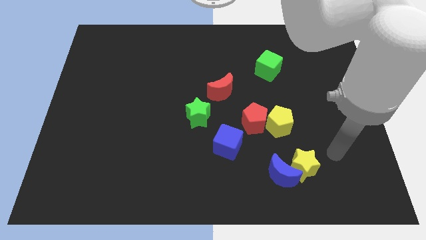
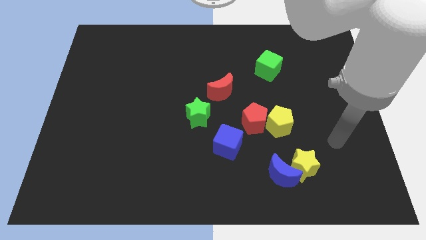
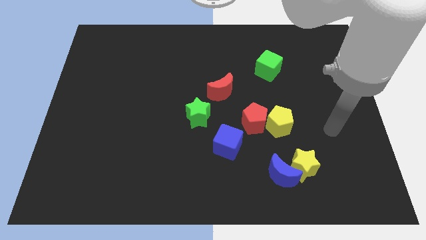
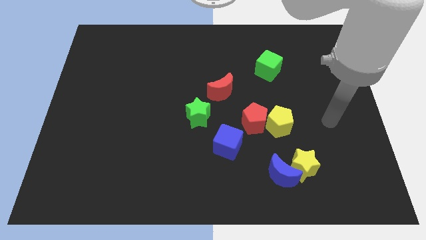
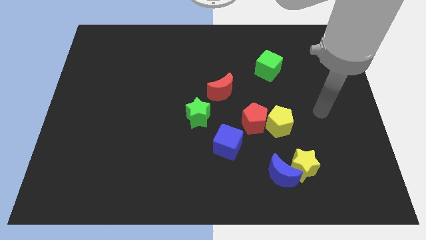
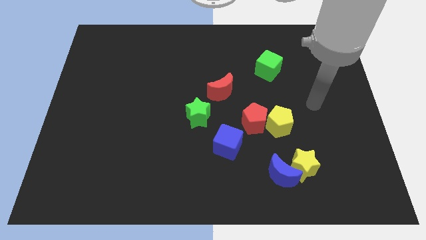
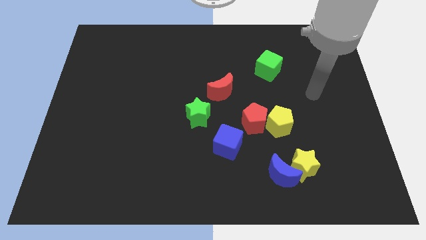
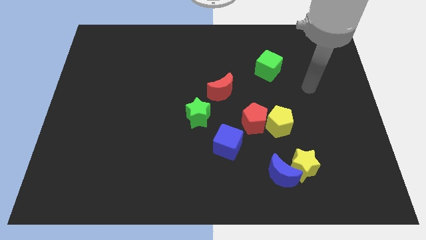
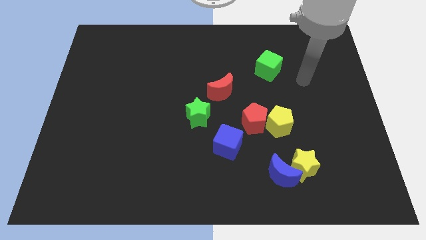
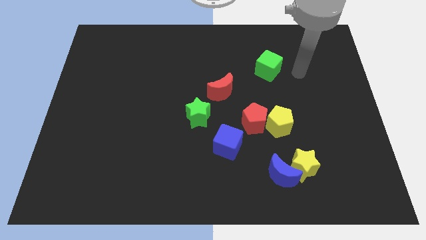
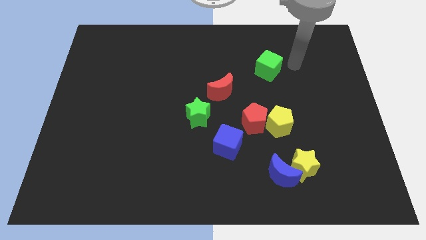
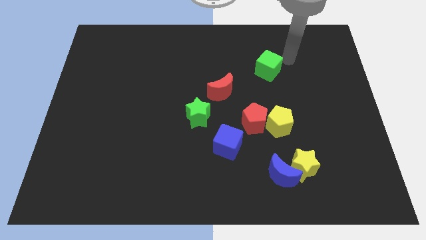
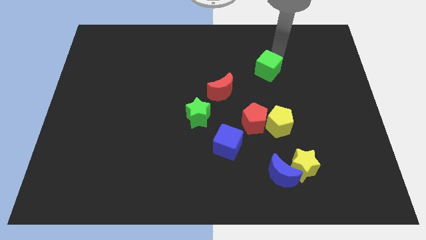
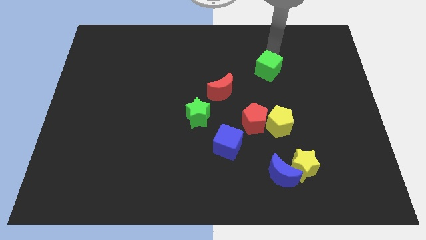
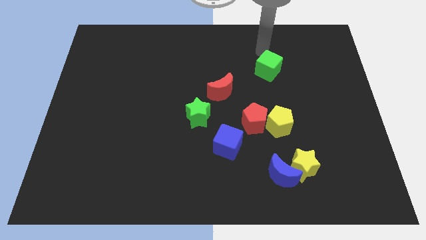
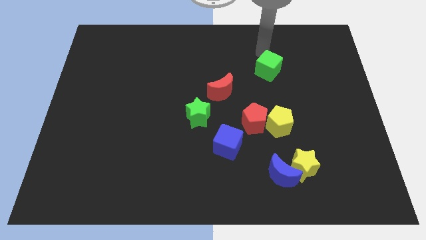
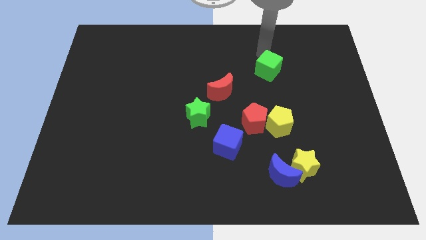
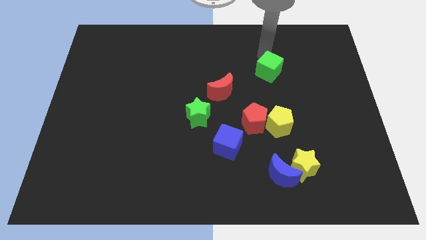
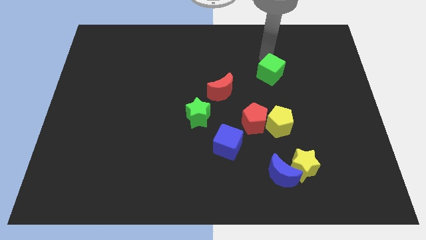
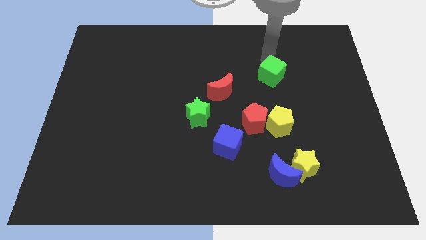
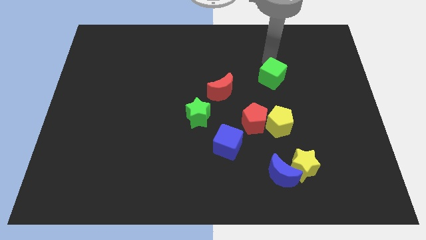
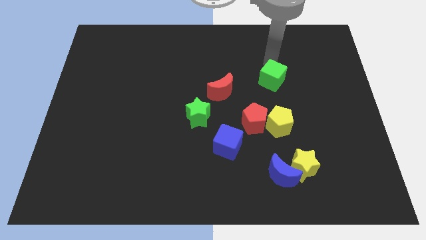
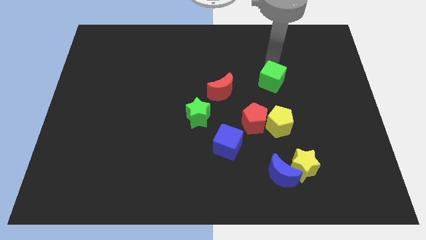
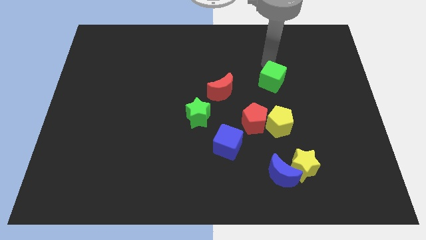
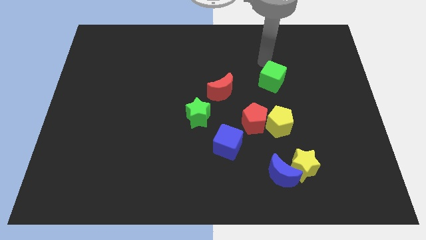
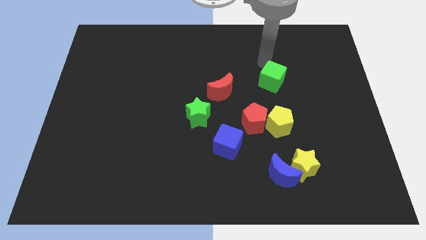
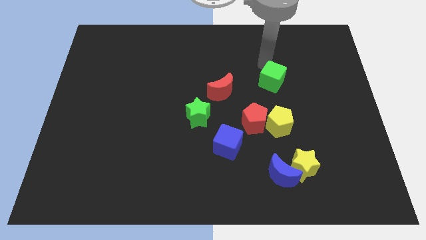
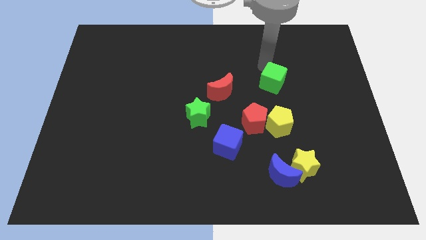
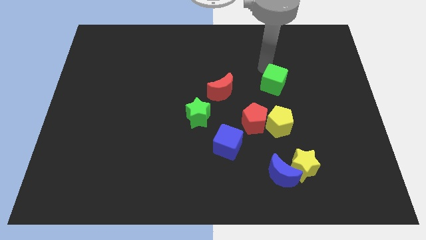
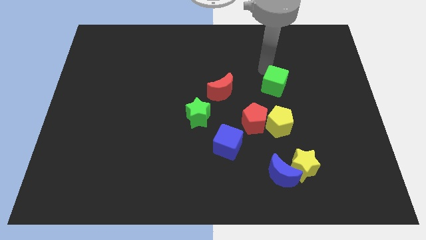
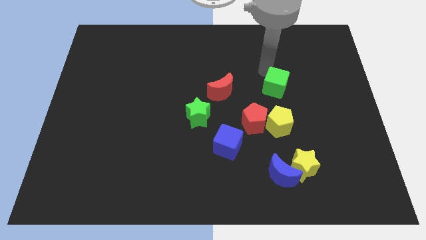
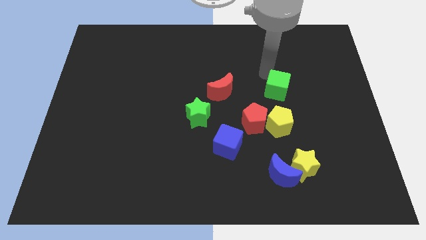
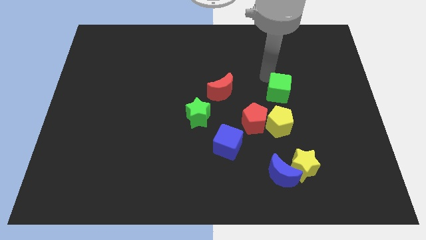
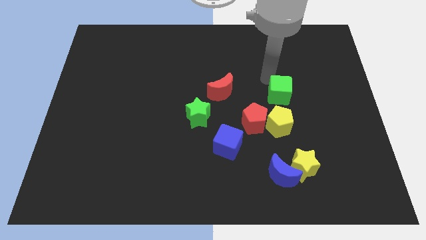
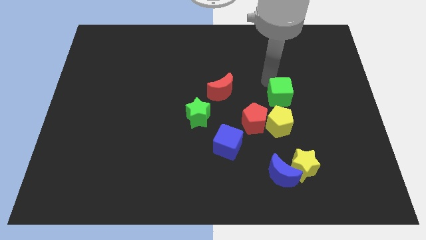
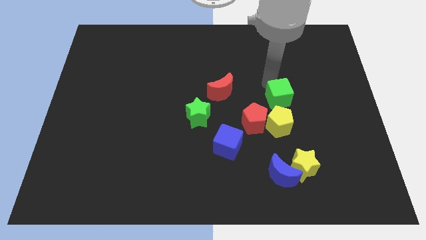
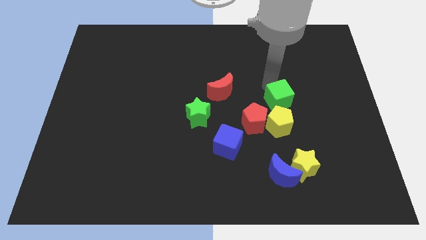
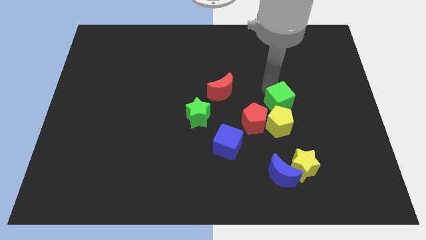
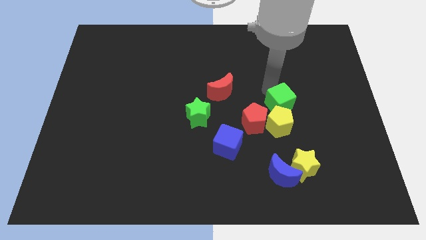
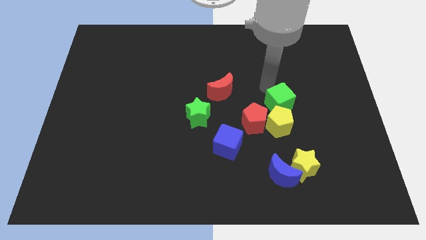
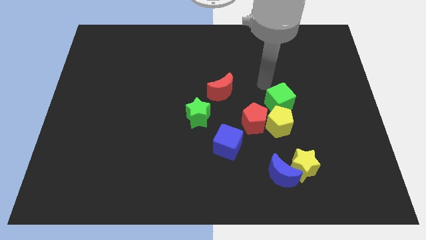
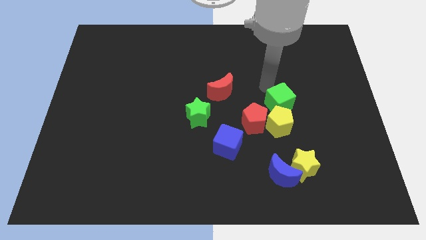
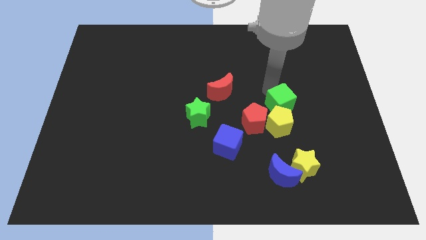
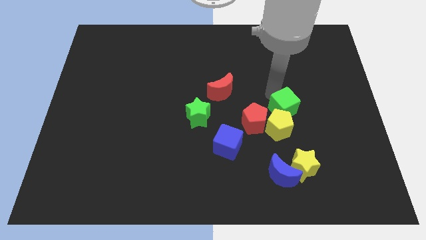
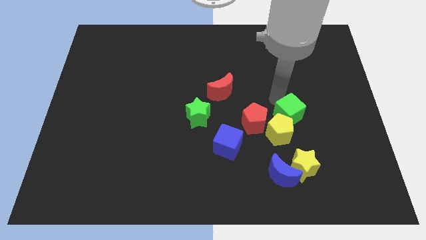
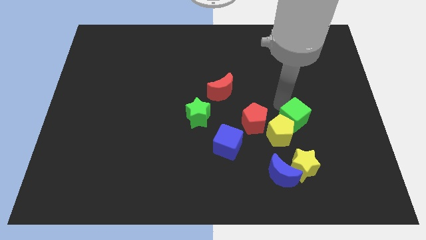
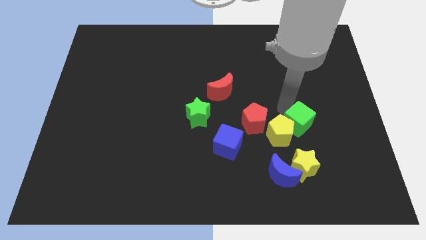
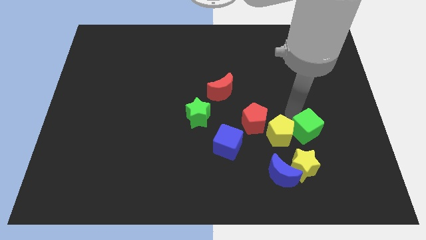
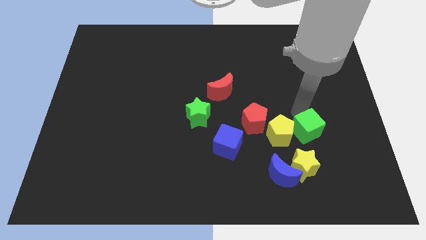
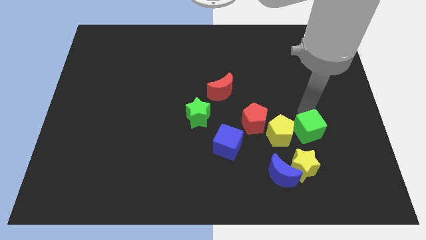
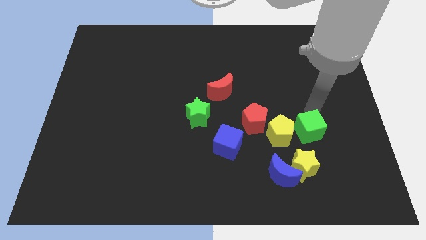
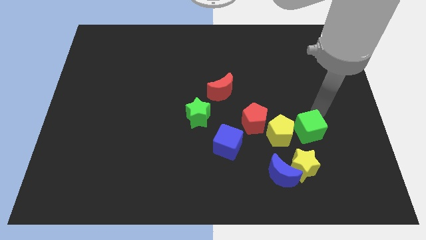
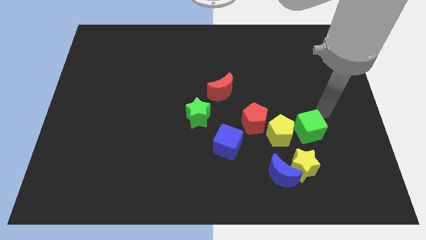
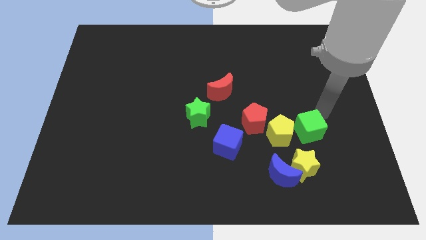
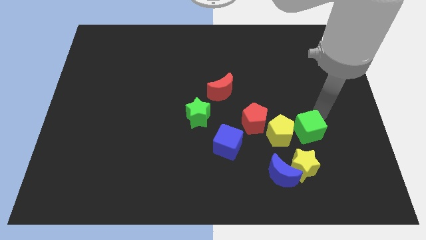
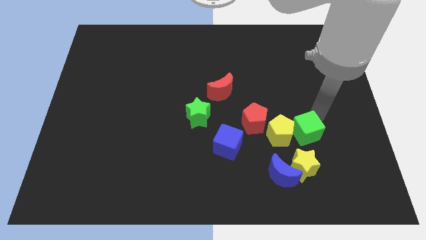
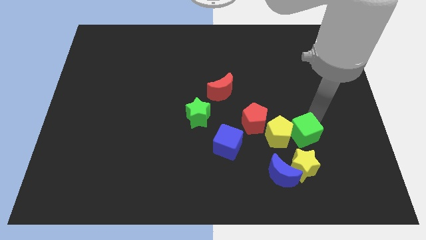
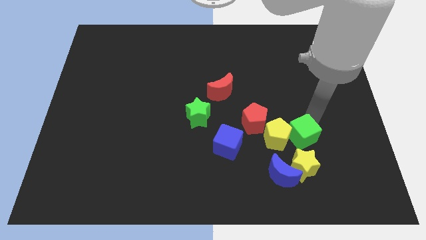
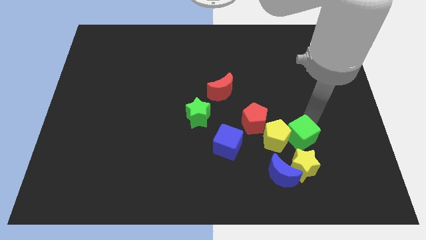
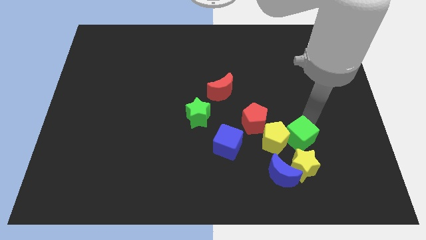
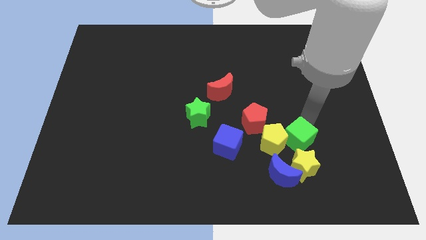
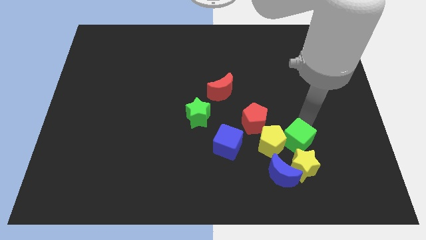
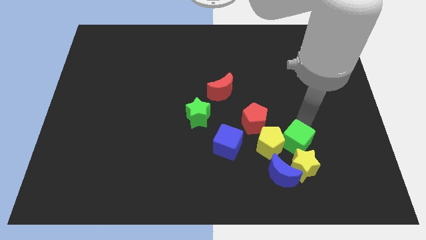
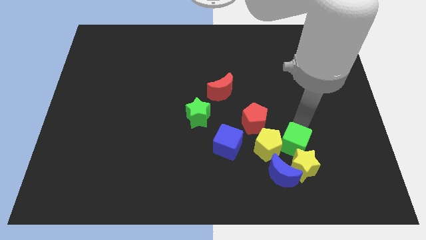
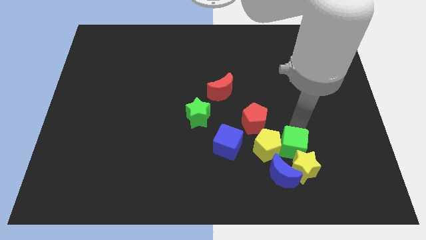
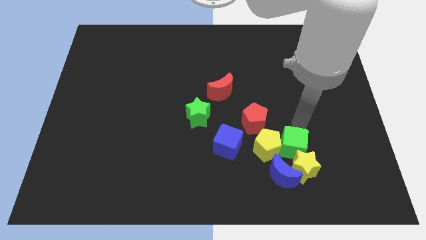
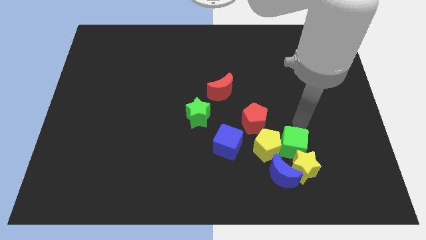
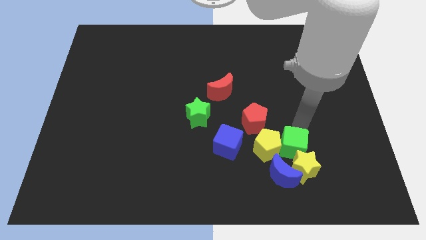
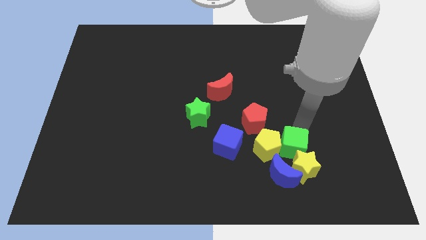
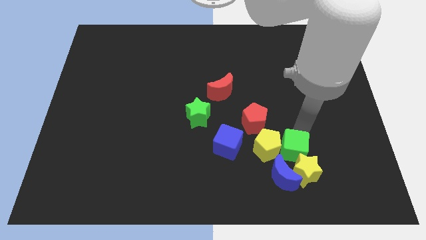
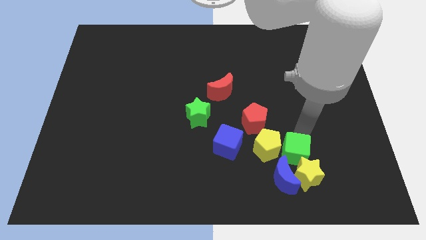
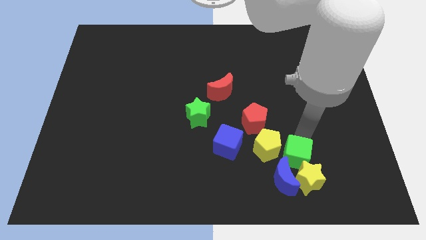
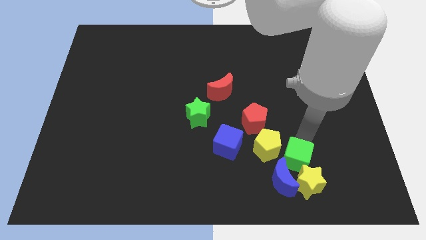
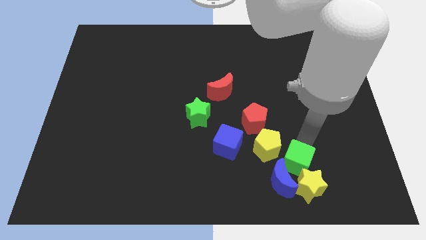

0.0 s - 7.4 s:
put the green cube towards the blue moon
